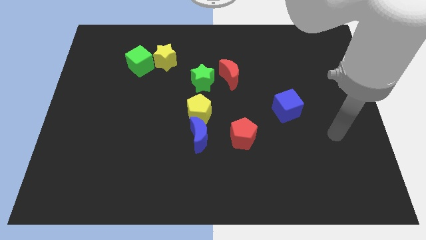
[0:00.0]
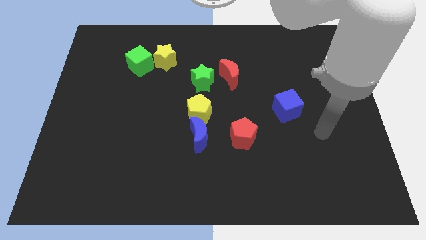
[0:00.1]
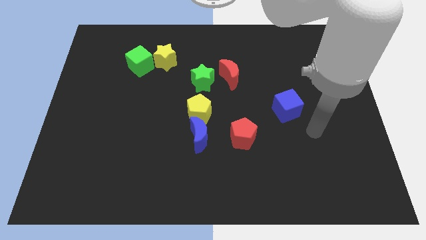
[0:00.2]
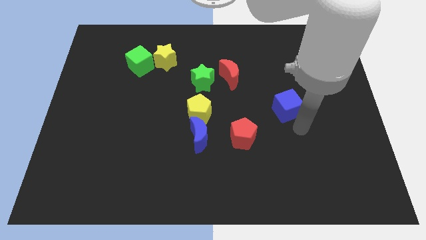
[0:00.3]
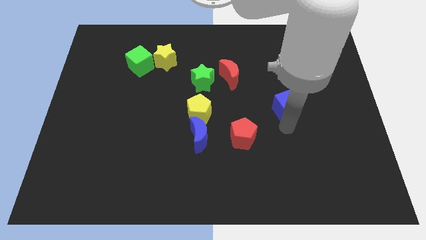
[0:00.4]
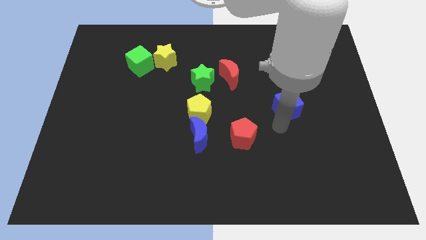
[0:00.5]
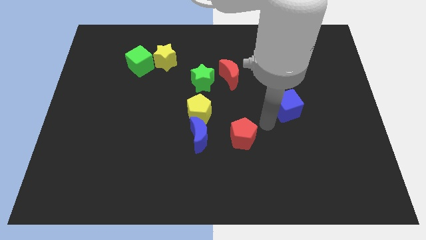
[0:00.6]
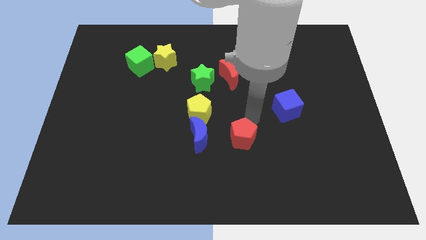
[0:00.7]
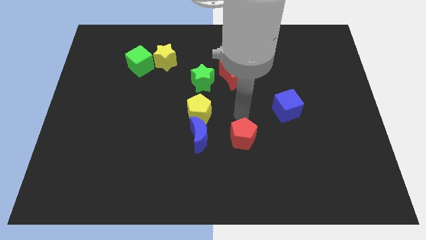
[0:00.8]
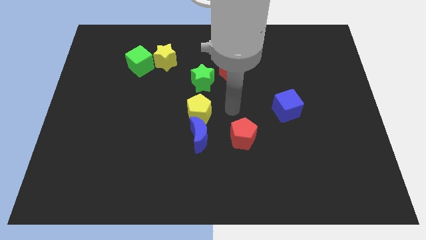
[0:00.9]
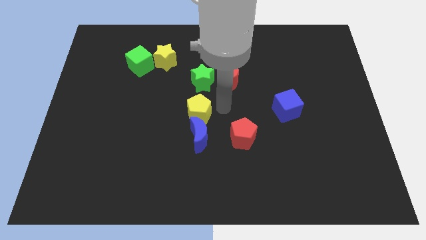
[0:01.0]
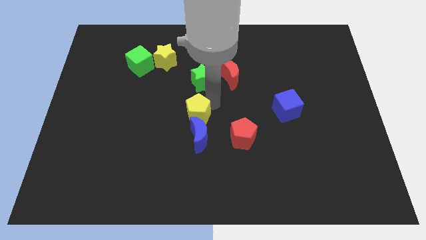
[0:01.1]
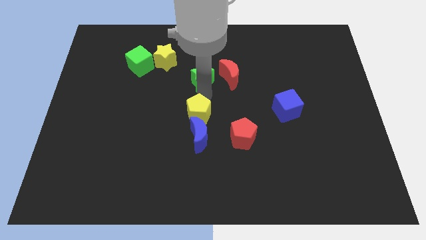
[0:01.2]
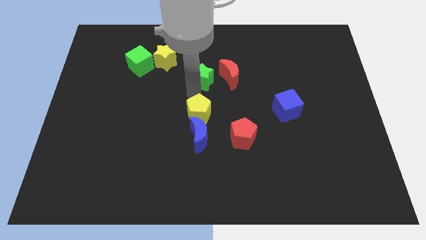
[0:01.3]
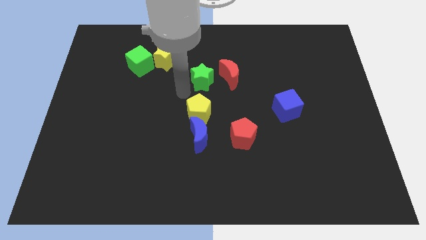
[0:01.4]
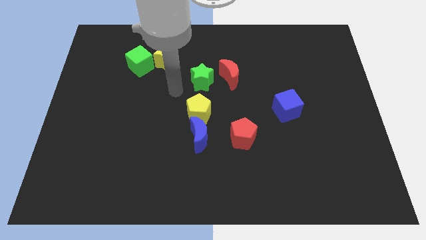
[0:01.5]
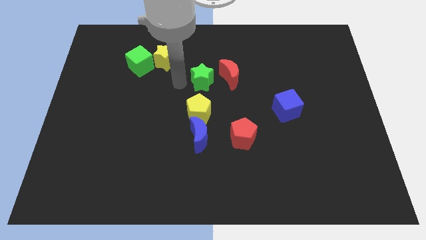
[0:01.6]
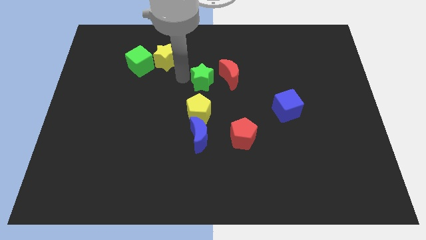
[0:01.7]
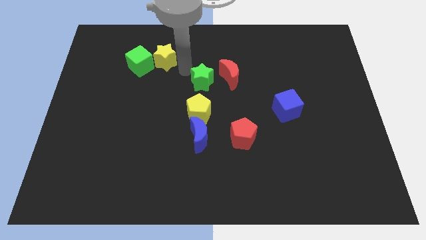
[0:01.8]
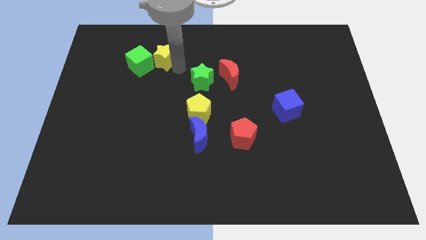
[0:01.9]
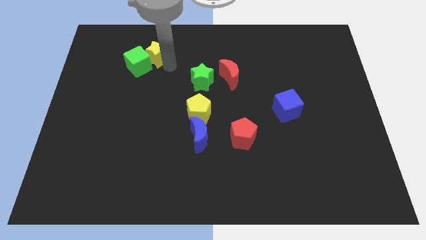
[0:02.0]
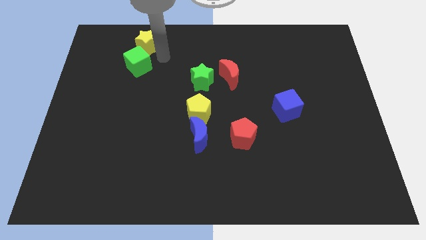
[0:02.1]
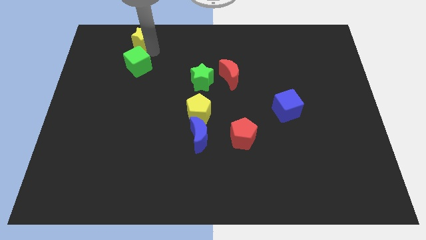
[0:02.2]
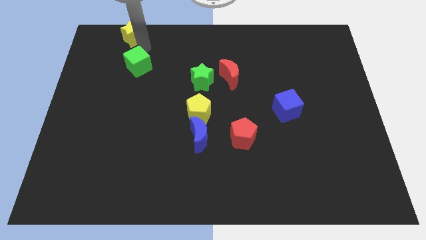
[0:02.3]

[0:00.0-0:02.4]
move the green cube away from the yellow star

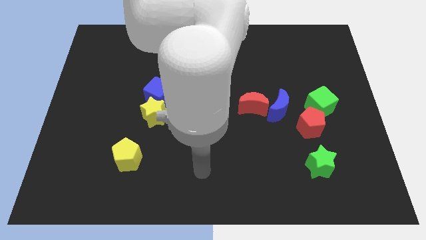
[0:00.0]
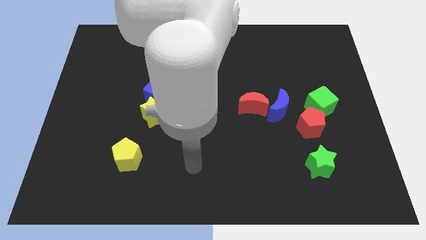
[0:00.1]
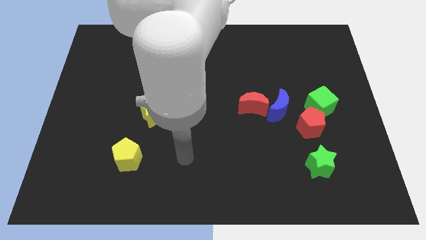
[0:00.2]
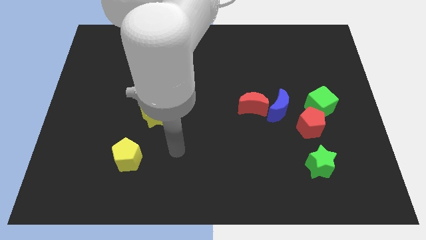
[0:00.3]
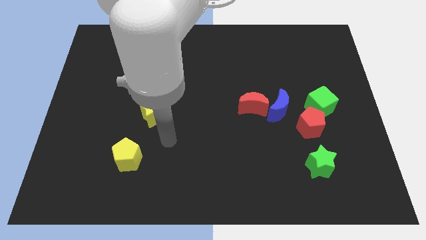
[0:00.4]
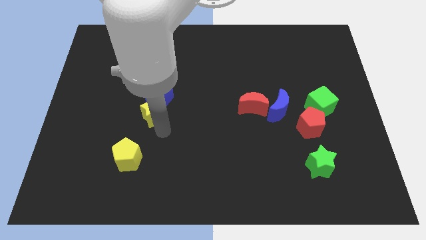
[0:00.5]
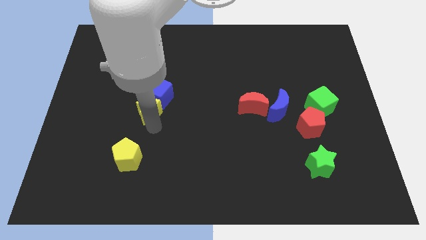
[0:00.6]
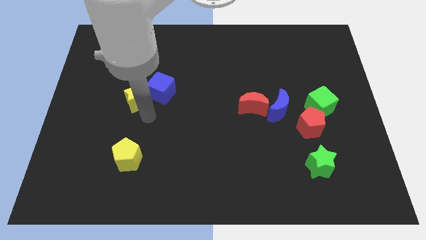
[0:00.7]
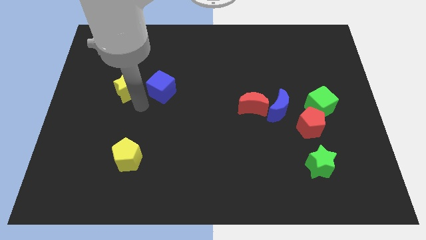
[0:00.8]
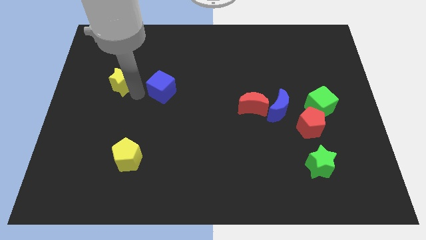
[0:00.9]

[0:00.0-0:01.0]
move the blue cube away from the yellow star

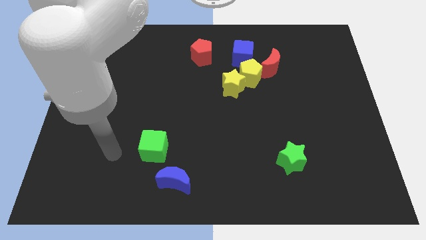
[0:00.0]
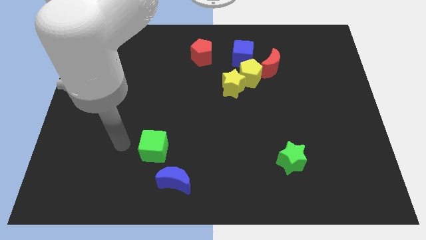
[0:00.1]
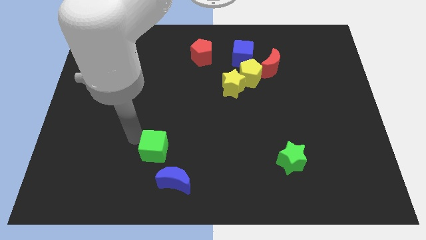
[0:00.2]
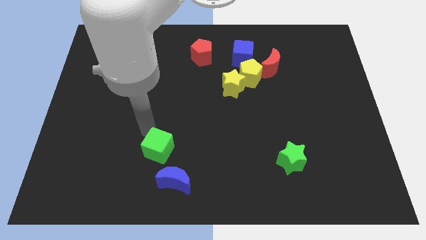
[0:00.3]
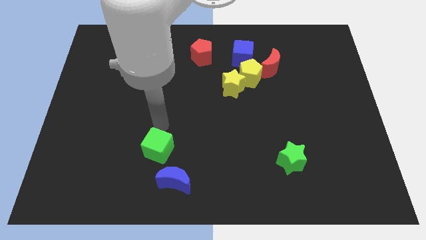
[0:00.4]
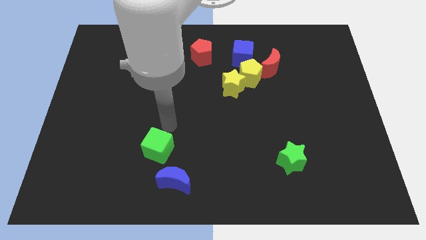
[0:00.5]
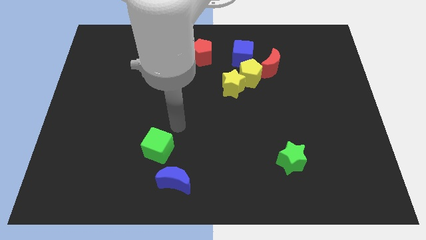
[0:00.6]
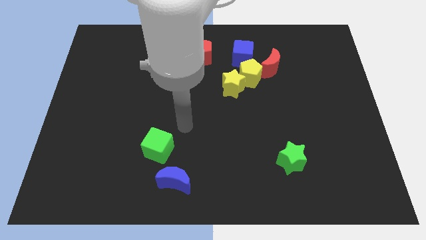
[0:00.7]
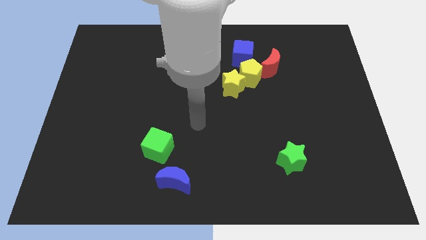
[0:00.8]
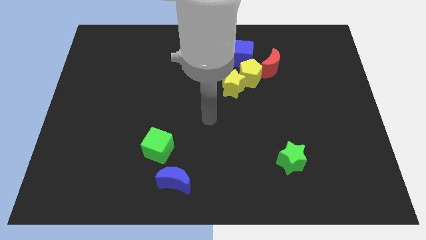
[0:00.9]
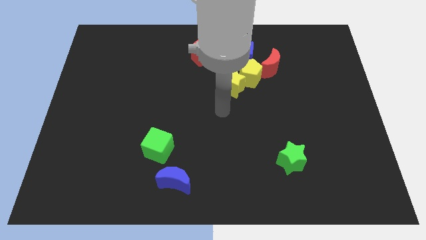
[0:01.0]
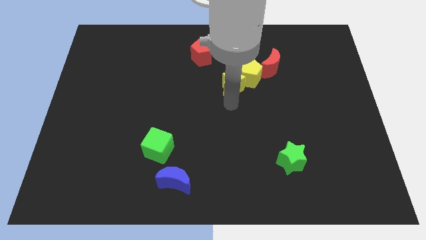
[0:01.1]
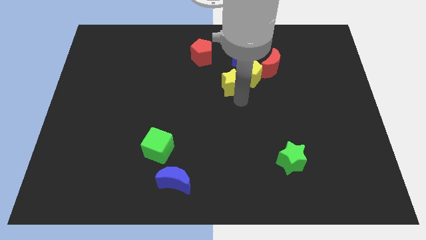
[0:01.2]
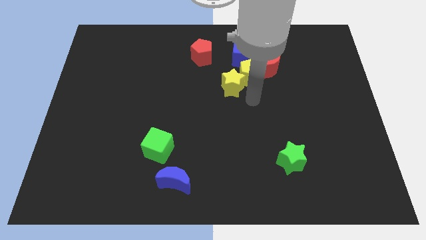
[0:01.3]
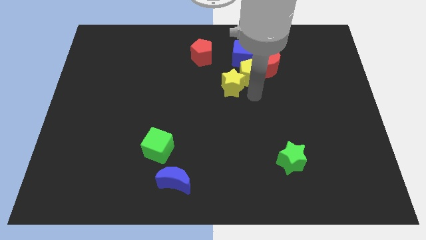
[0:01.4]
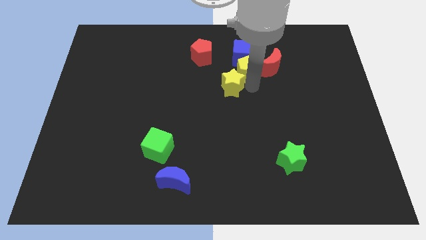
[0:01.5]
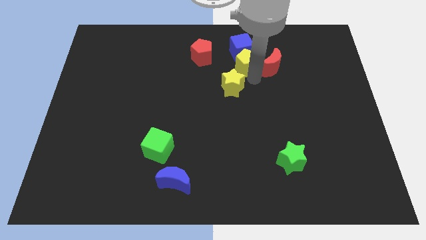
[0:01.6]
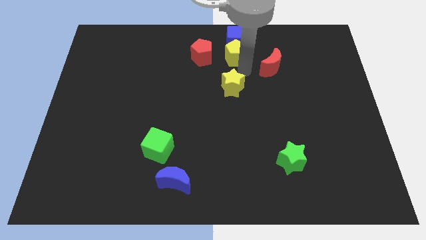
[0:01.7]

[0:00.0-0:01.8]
pull the yellow star apart from the yellow pentagon

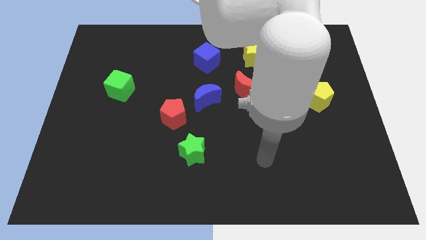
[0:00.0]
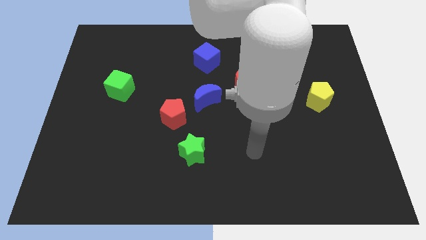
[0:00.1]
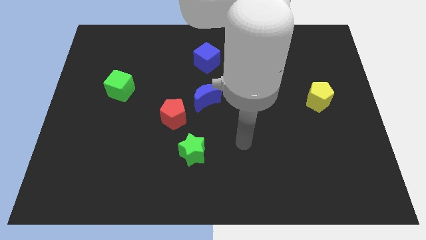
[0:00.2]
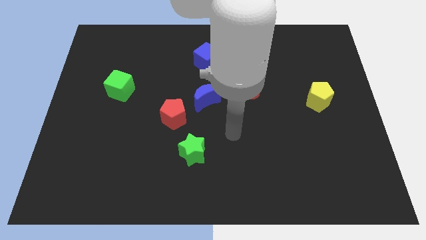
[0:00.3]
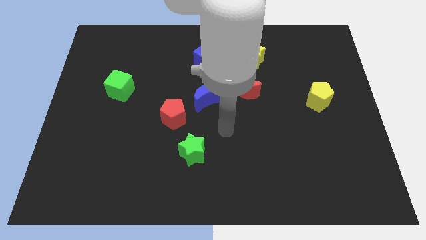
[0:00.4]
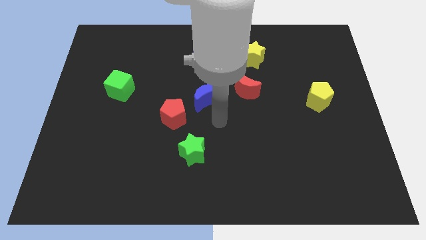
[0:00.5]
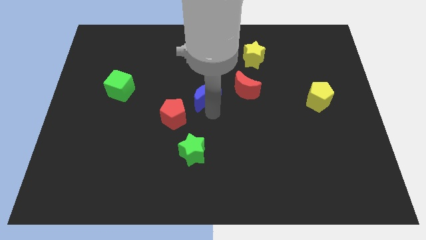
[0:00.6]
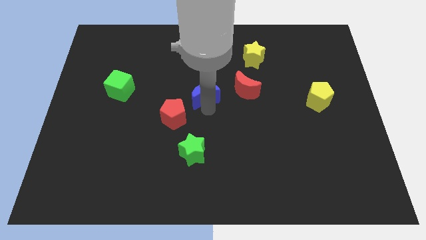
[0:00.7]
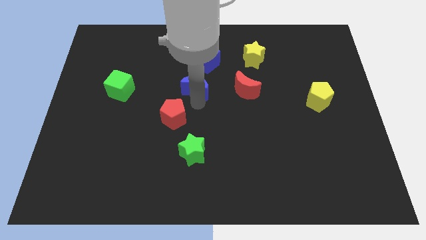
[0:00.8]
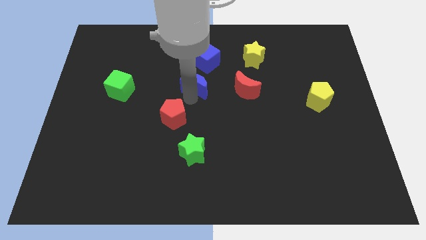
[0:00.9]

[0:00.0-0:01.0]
pull the red pentagon apart from the blue moon

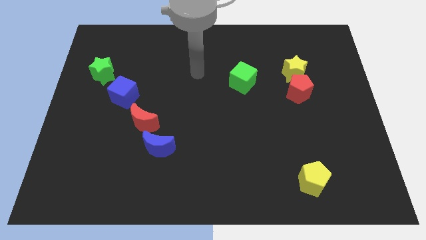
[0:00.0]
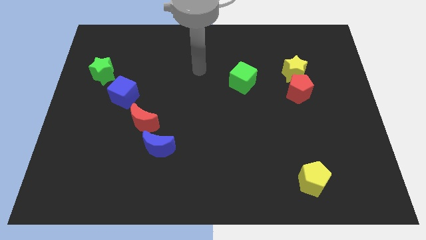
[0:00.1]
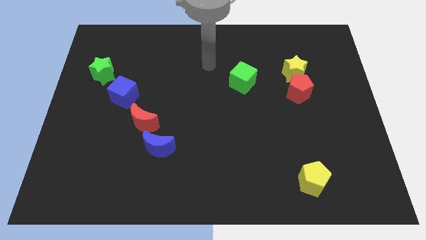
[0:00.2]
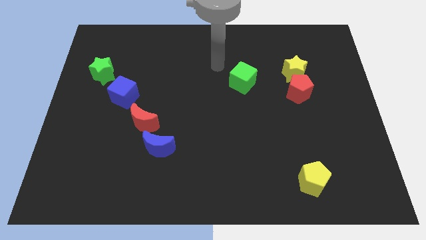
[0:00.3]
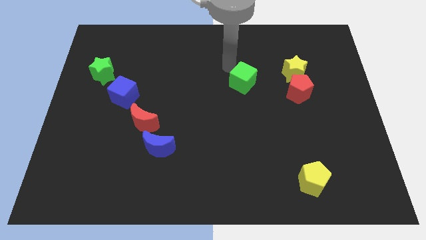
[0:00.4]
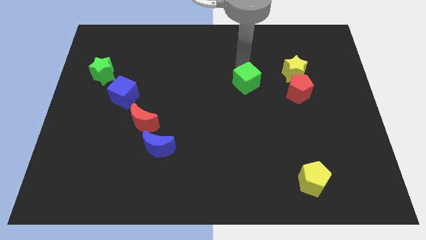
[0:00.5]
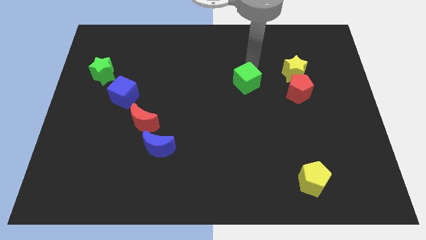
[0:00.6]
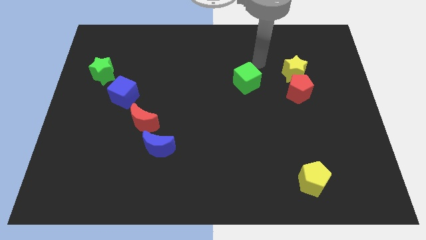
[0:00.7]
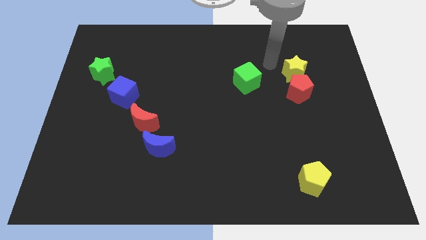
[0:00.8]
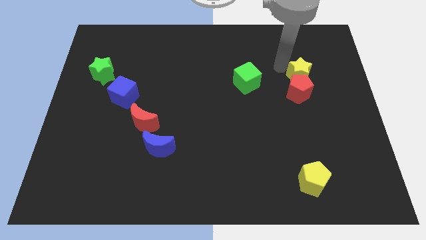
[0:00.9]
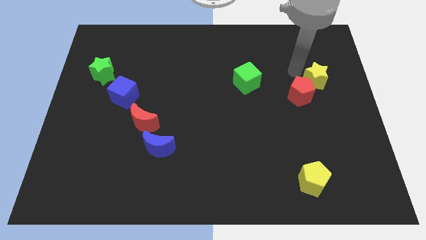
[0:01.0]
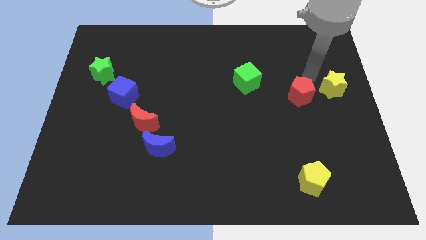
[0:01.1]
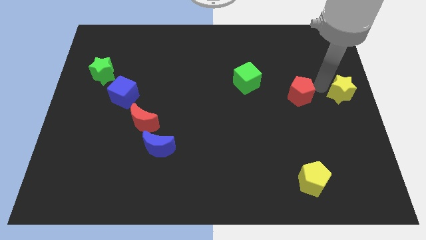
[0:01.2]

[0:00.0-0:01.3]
move the red pentagon away from the yellow star

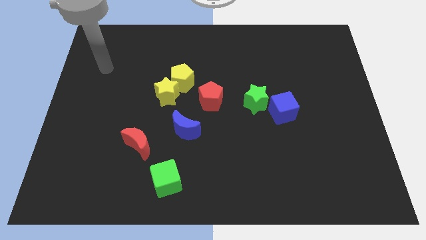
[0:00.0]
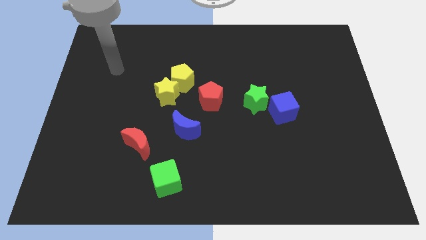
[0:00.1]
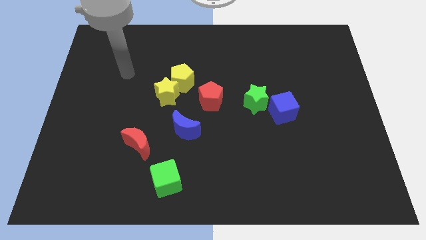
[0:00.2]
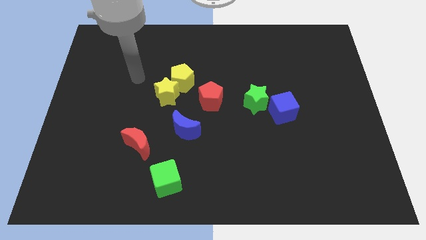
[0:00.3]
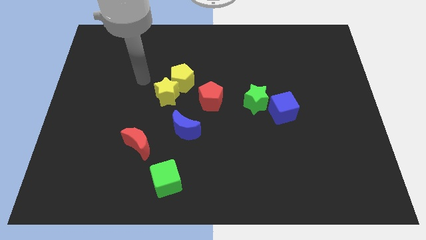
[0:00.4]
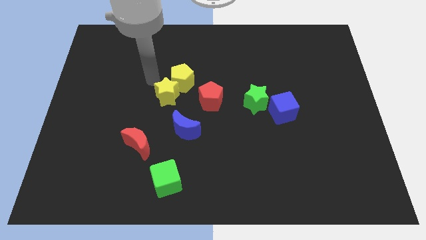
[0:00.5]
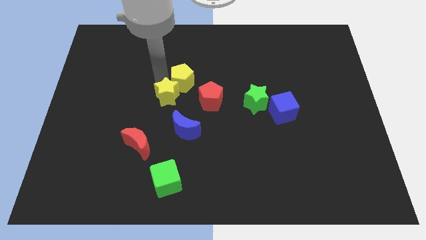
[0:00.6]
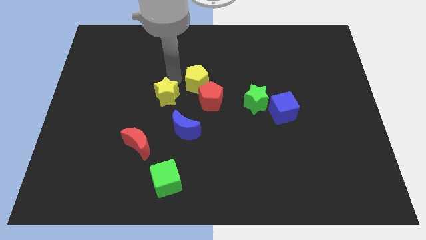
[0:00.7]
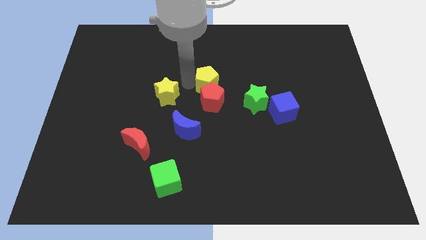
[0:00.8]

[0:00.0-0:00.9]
move the yellow star away from the yellow pentagon

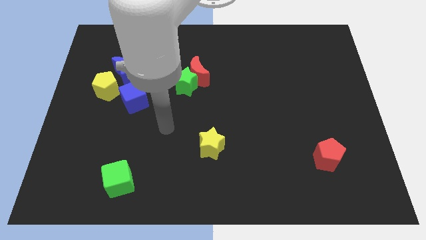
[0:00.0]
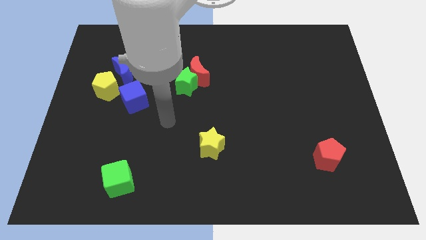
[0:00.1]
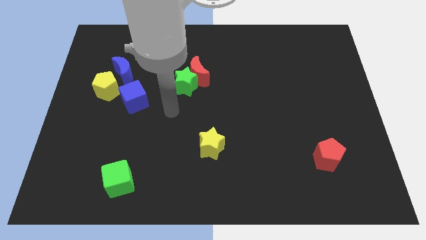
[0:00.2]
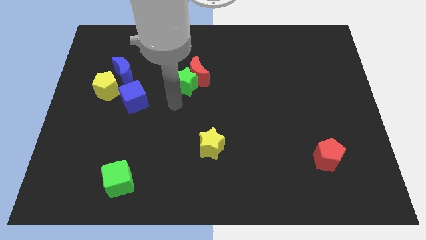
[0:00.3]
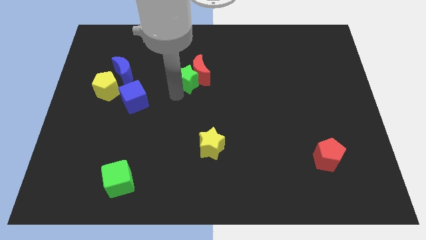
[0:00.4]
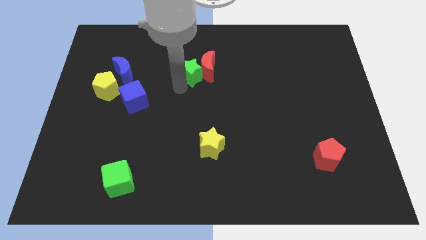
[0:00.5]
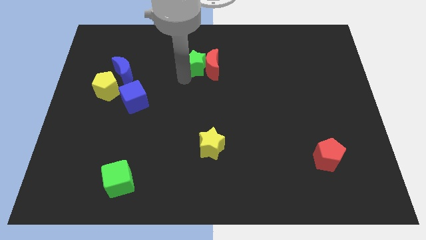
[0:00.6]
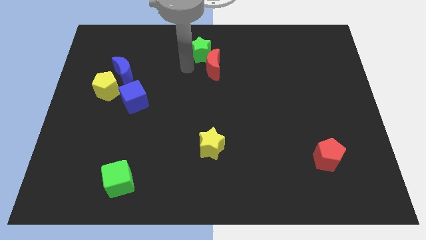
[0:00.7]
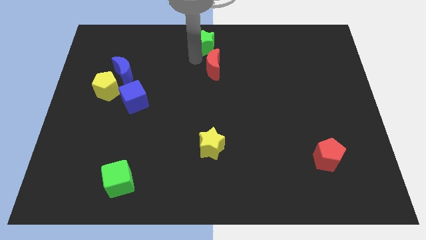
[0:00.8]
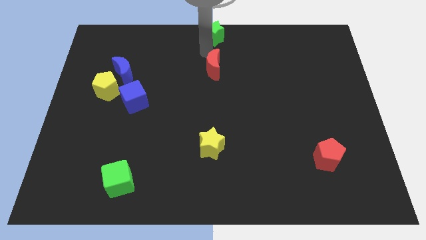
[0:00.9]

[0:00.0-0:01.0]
move the red moon away from the green star
